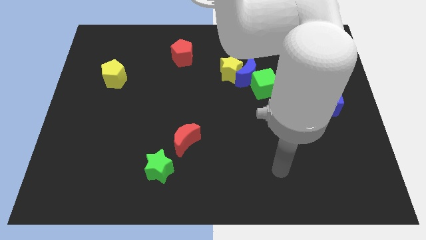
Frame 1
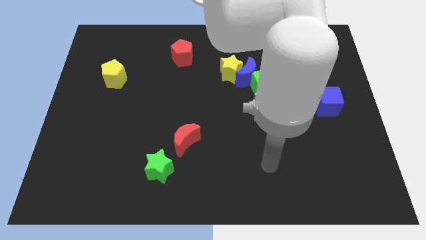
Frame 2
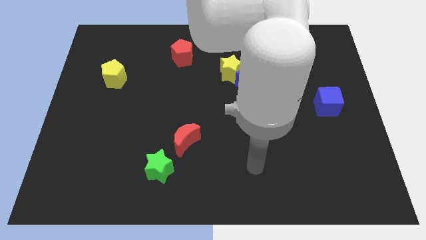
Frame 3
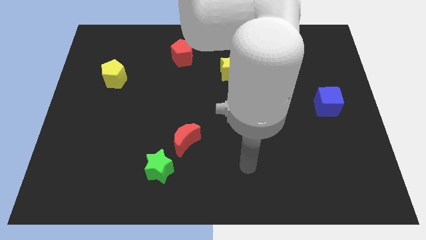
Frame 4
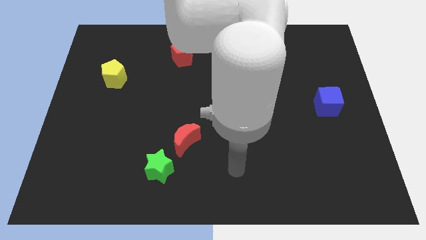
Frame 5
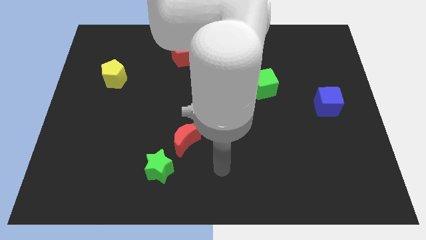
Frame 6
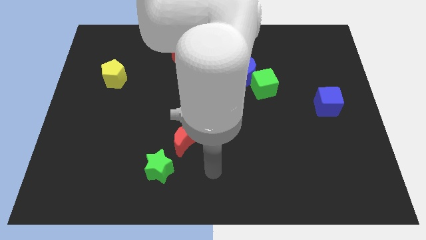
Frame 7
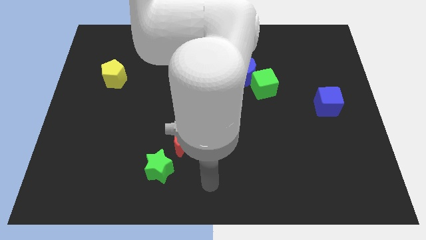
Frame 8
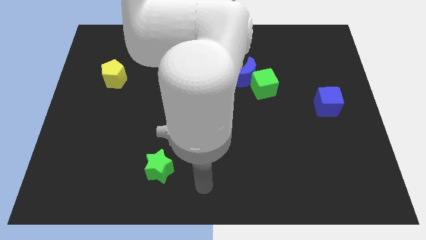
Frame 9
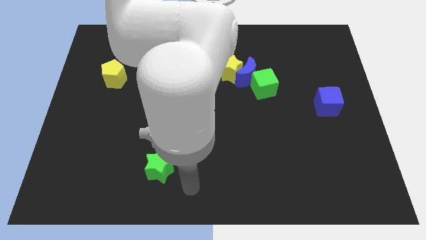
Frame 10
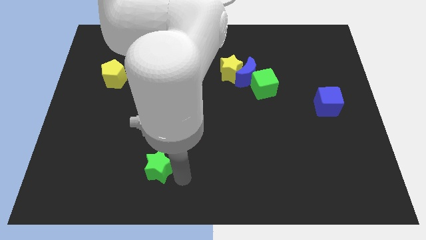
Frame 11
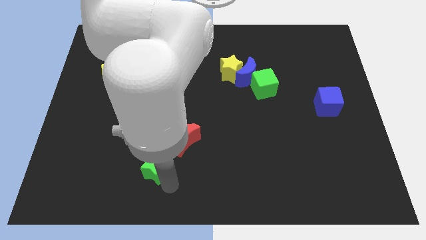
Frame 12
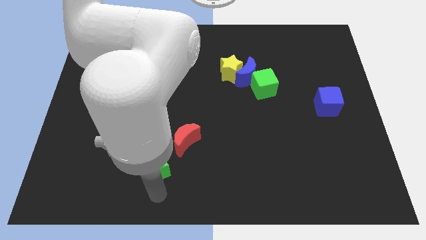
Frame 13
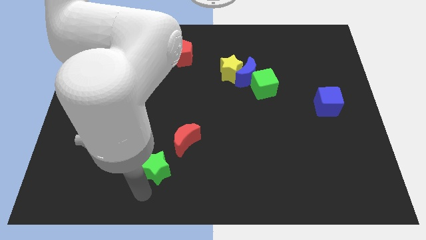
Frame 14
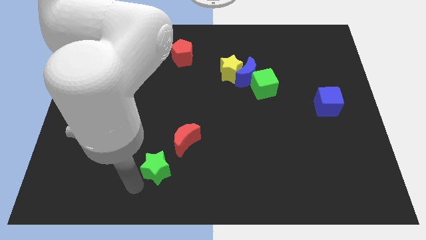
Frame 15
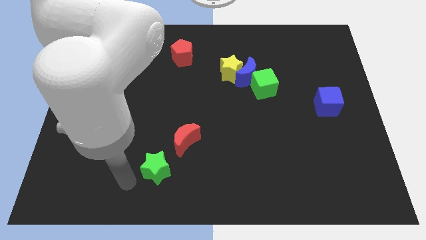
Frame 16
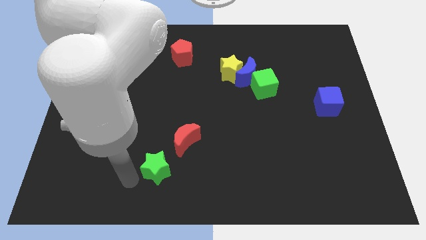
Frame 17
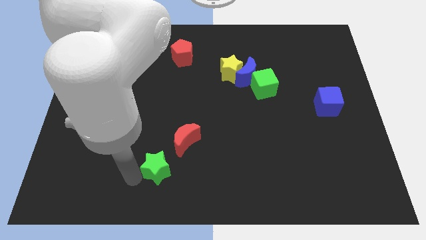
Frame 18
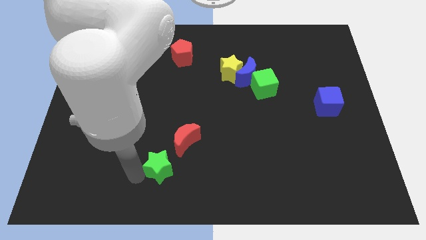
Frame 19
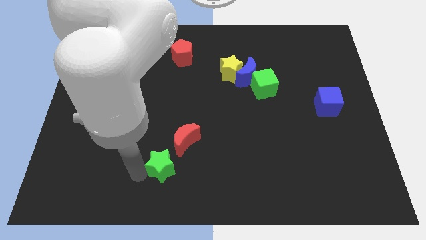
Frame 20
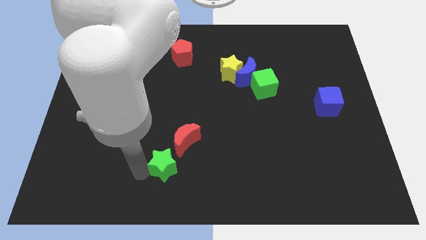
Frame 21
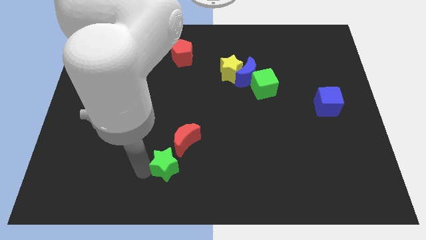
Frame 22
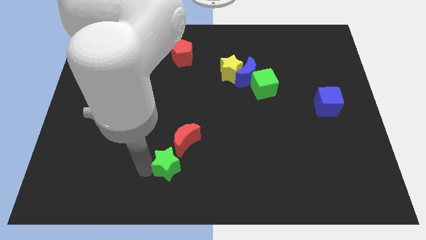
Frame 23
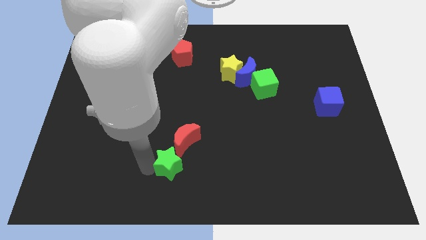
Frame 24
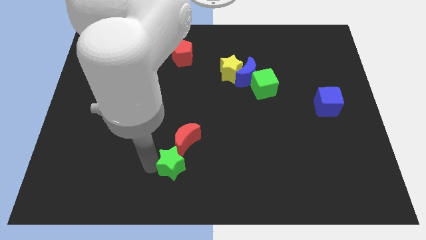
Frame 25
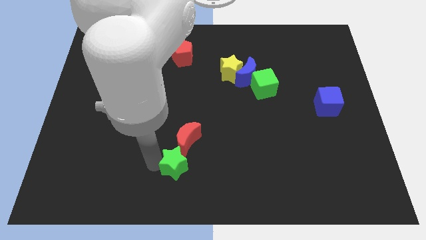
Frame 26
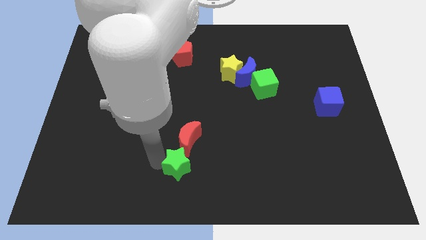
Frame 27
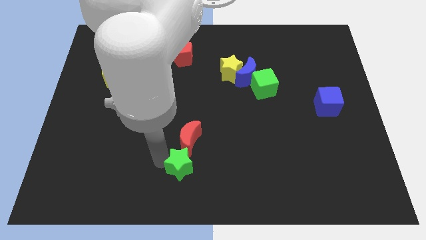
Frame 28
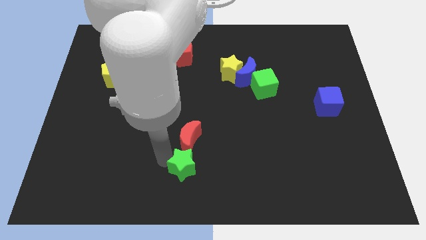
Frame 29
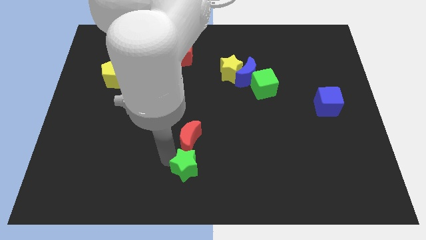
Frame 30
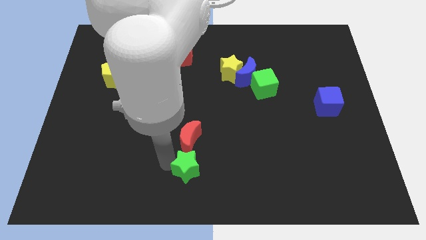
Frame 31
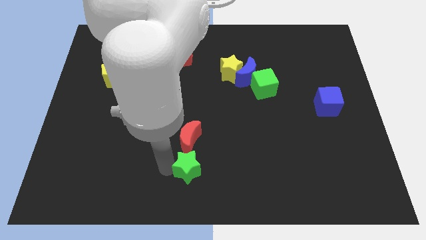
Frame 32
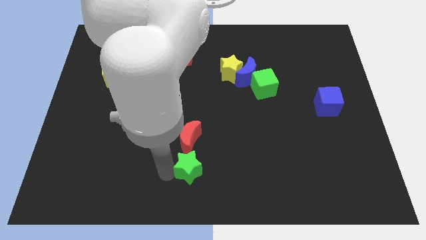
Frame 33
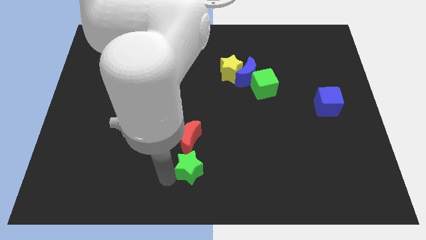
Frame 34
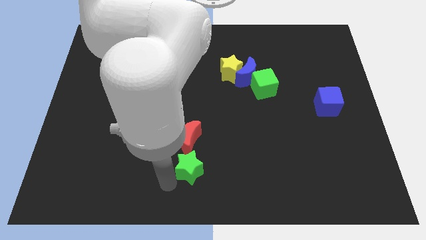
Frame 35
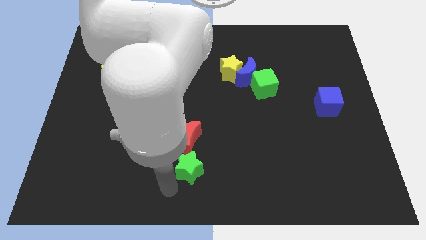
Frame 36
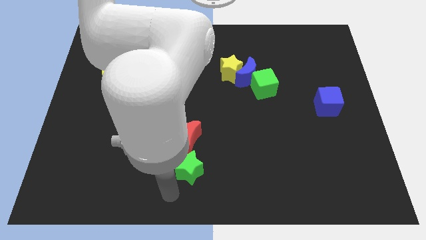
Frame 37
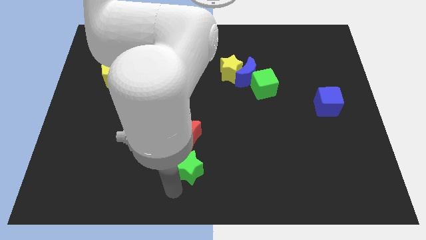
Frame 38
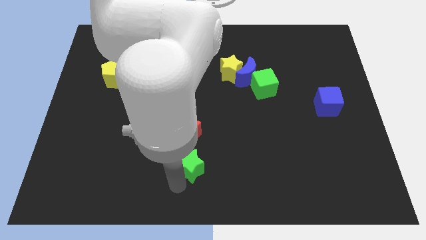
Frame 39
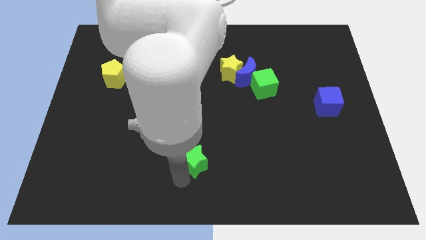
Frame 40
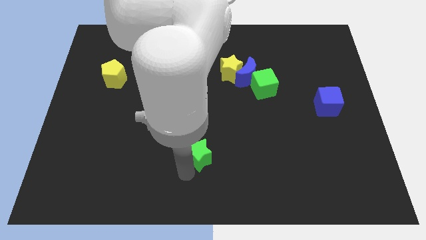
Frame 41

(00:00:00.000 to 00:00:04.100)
push the green star up and then to the right a little

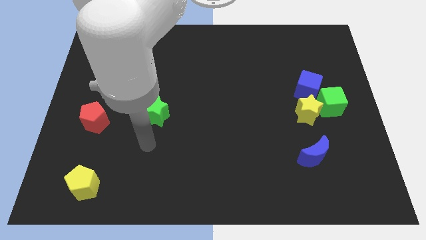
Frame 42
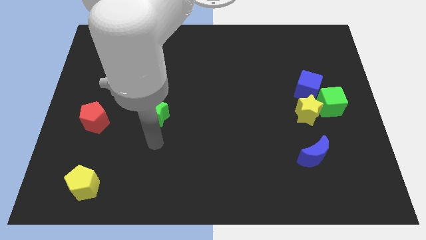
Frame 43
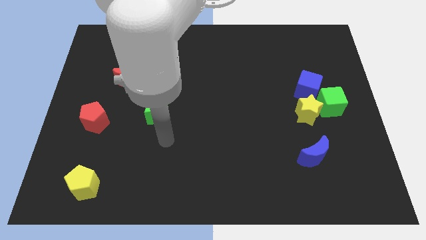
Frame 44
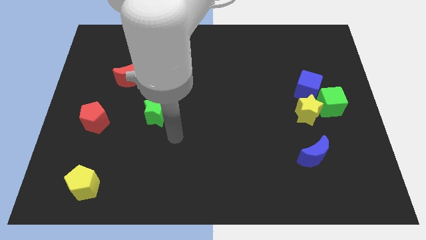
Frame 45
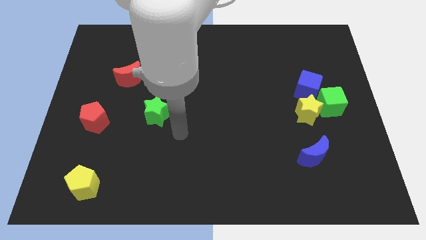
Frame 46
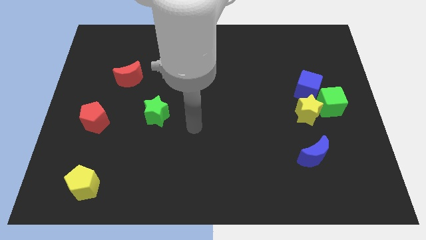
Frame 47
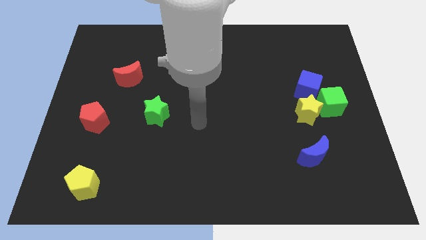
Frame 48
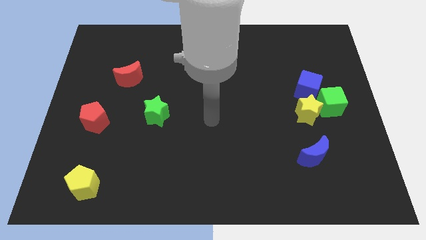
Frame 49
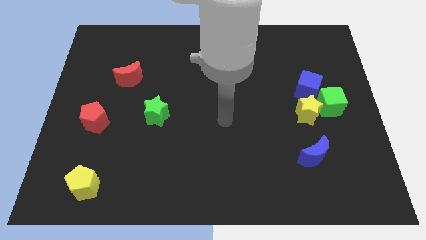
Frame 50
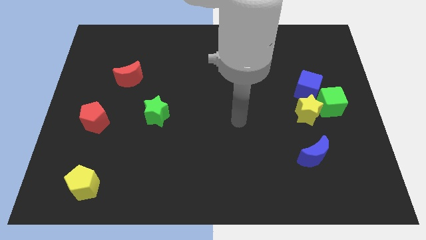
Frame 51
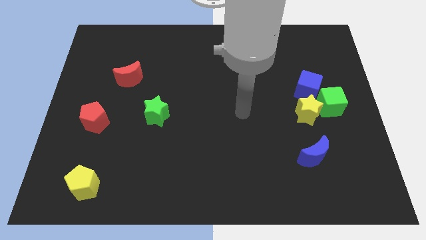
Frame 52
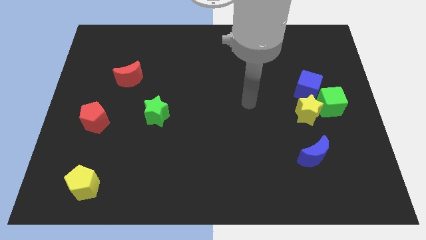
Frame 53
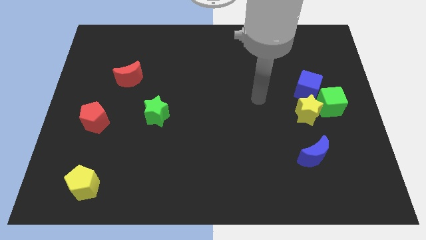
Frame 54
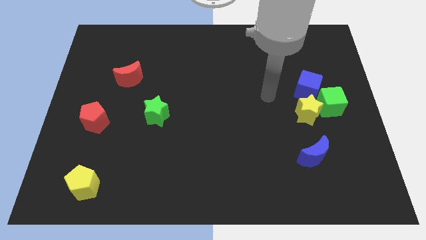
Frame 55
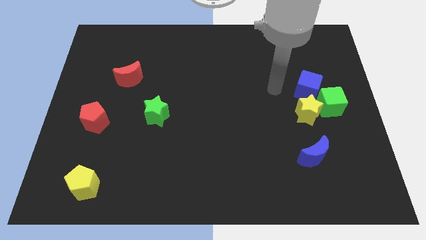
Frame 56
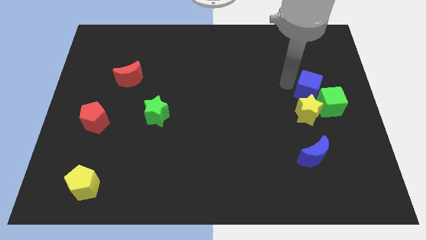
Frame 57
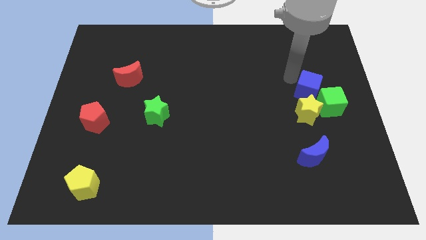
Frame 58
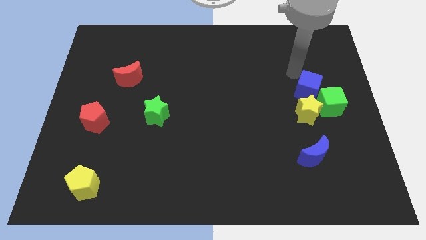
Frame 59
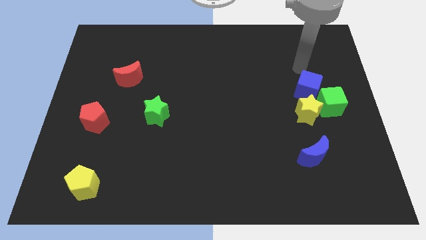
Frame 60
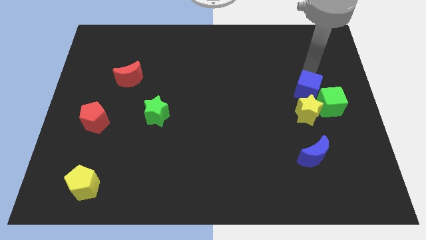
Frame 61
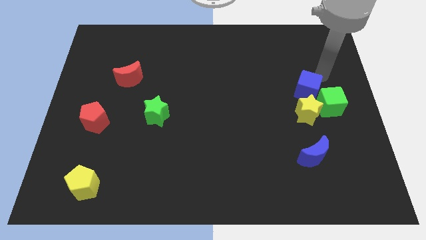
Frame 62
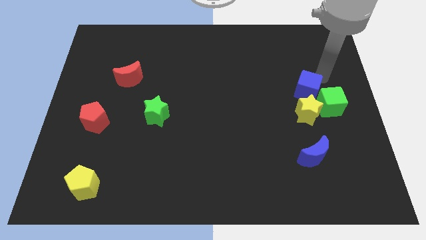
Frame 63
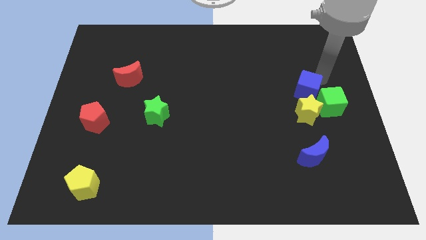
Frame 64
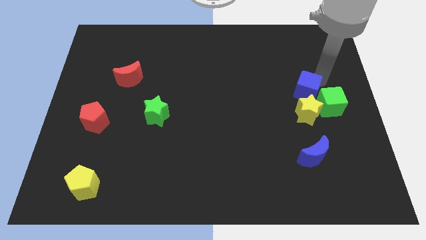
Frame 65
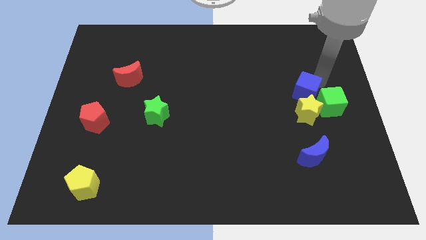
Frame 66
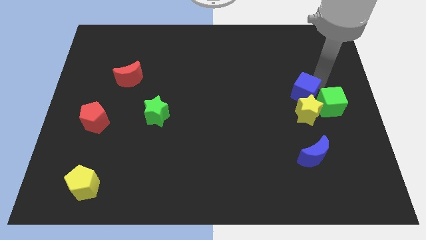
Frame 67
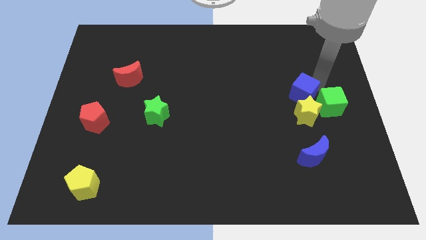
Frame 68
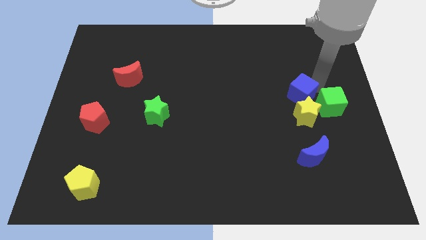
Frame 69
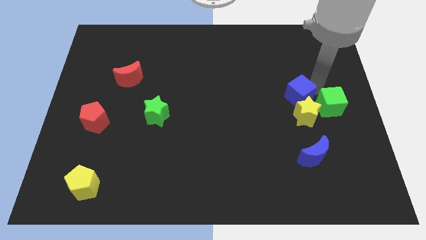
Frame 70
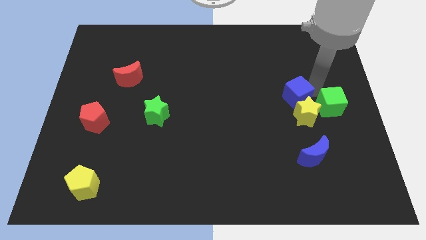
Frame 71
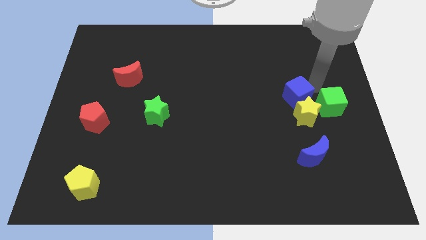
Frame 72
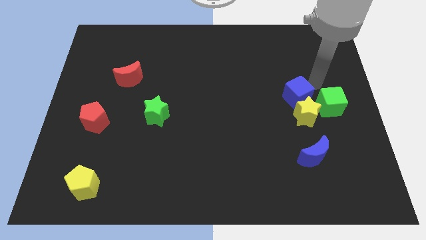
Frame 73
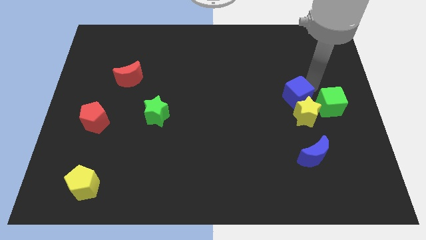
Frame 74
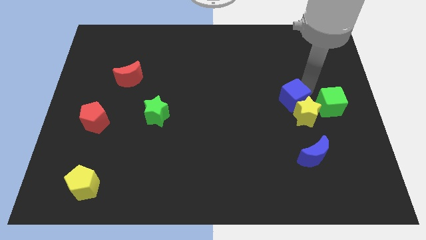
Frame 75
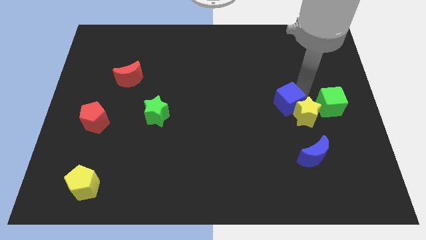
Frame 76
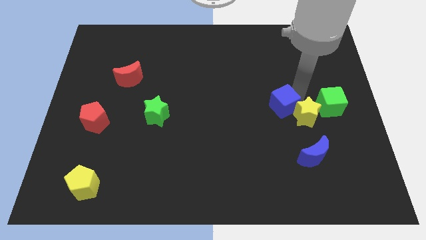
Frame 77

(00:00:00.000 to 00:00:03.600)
slide the blue cube a little down and to the left diagonally

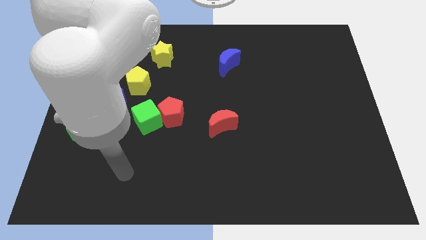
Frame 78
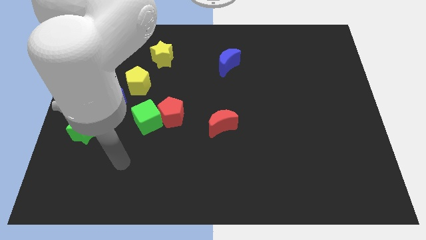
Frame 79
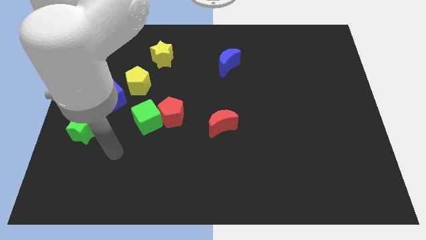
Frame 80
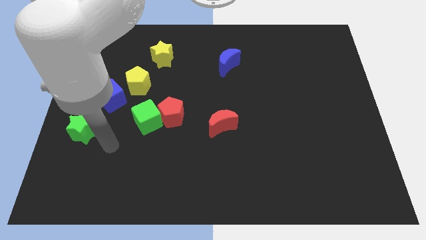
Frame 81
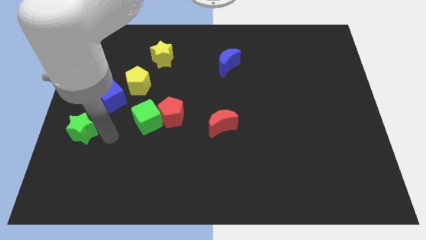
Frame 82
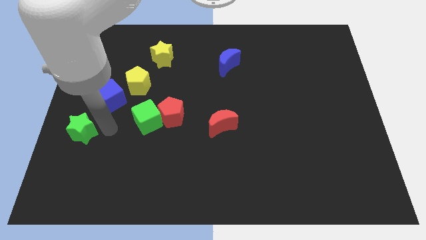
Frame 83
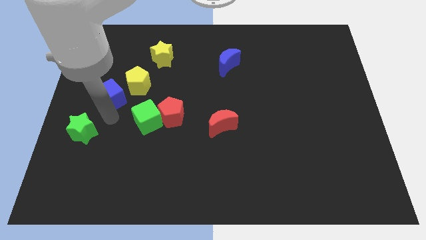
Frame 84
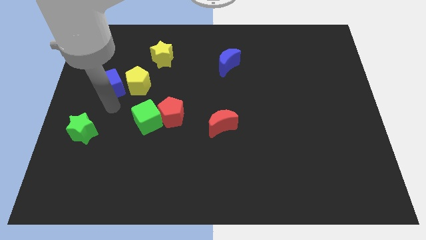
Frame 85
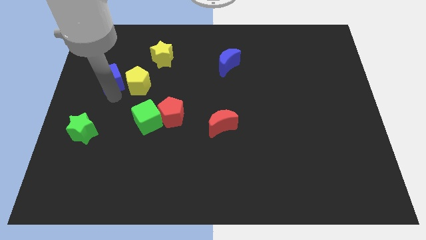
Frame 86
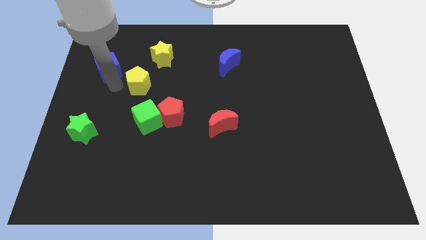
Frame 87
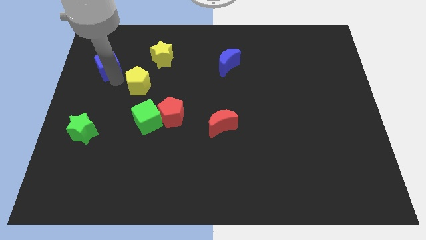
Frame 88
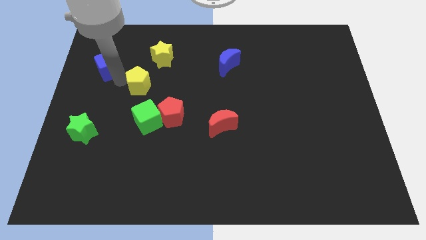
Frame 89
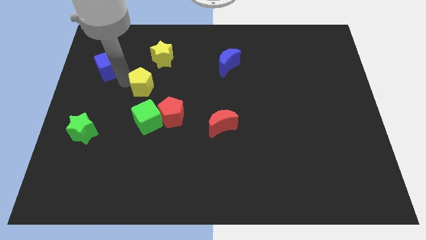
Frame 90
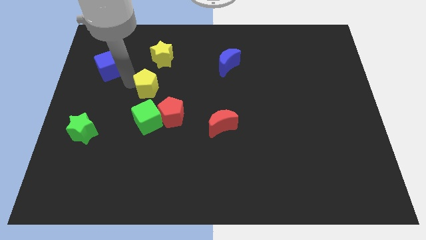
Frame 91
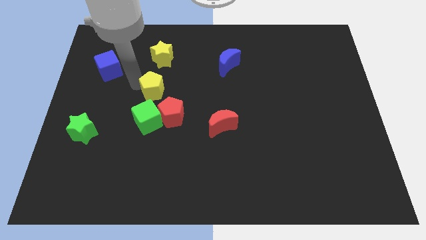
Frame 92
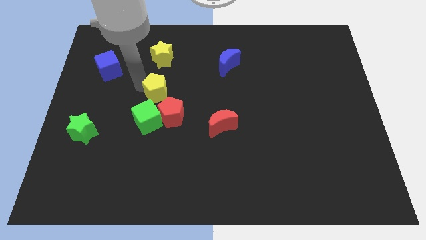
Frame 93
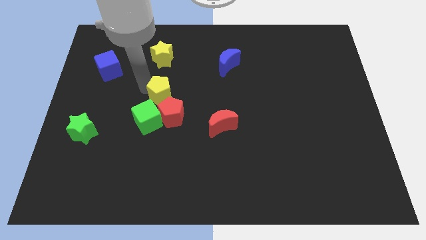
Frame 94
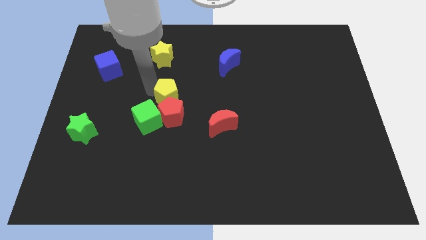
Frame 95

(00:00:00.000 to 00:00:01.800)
push the yellow pentagon down and to the right diagonally a bit
